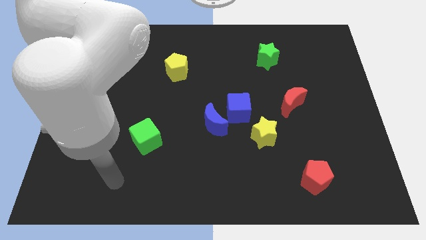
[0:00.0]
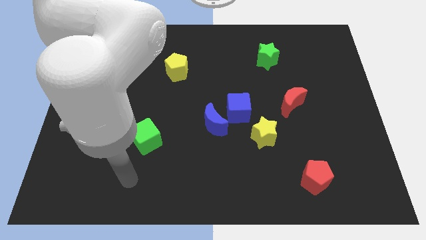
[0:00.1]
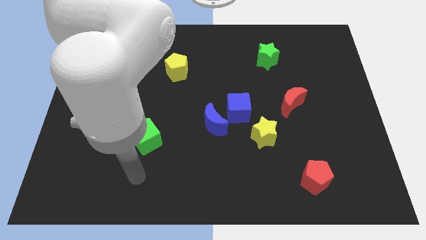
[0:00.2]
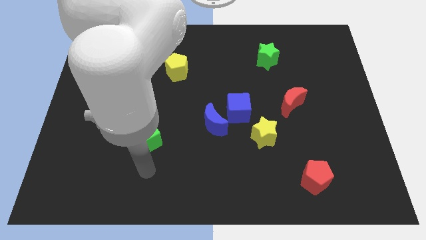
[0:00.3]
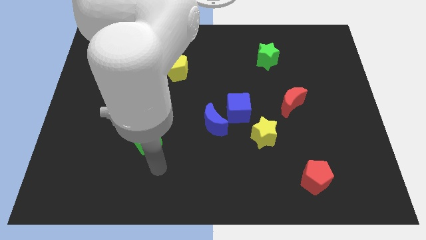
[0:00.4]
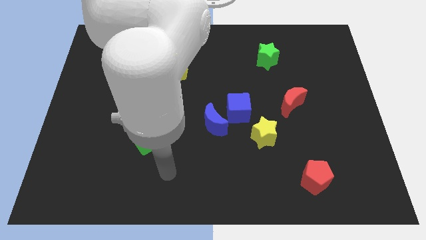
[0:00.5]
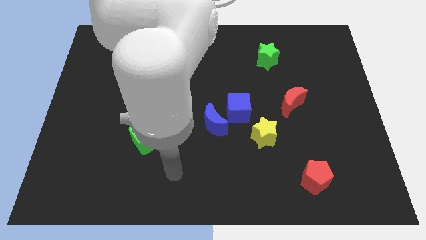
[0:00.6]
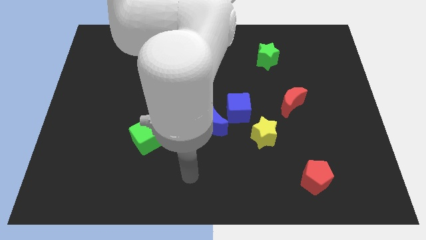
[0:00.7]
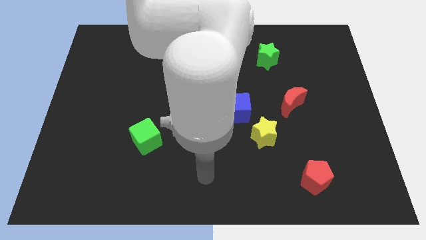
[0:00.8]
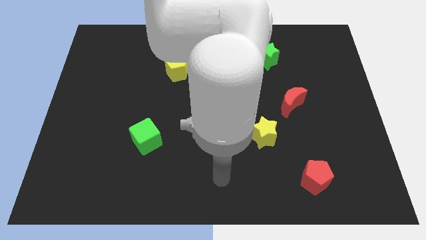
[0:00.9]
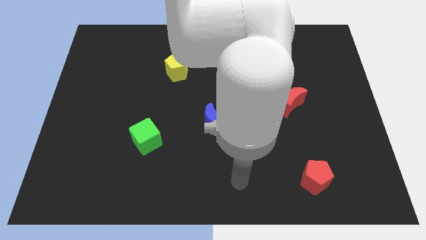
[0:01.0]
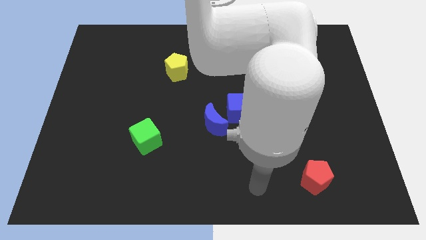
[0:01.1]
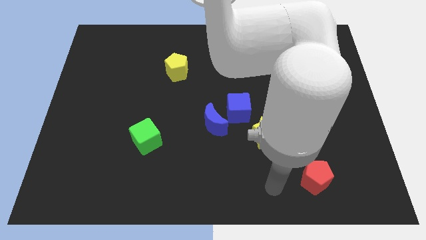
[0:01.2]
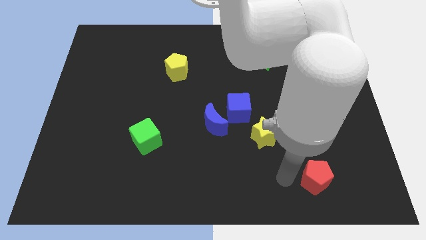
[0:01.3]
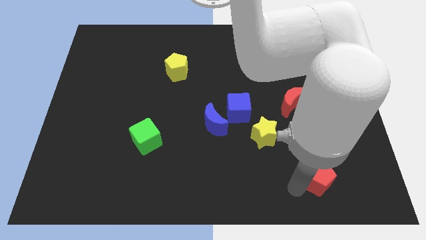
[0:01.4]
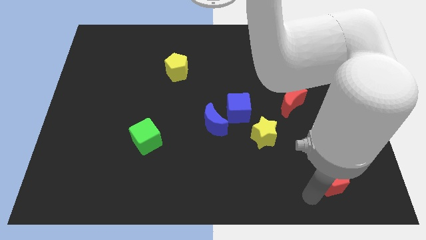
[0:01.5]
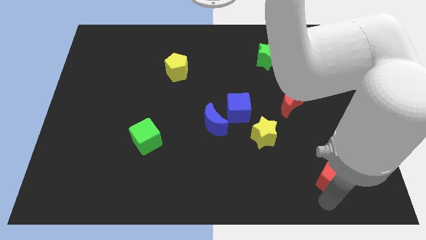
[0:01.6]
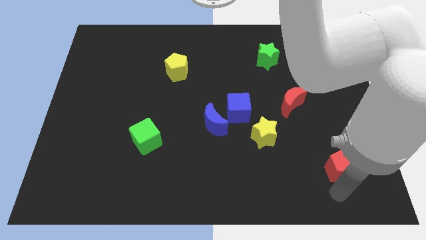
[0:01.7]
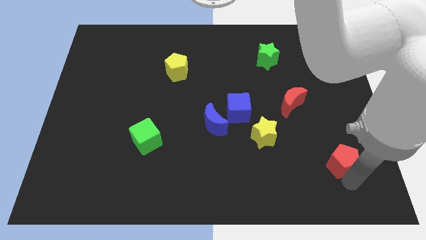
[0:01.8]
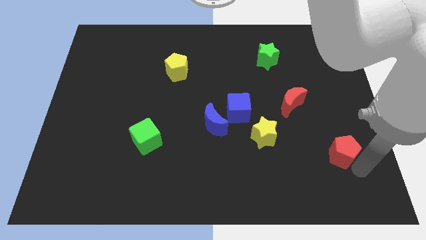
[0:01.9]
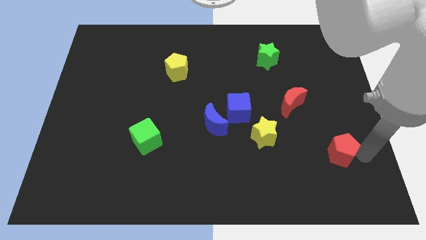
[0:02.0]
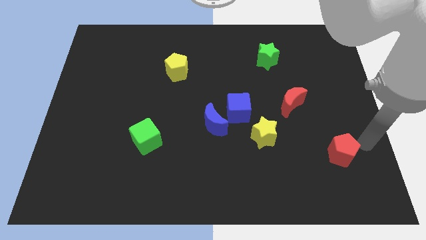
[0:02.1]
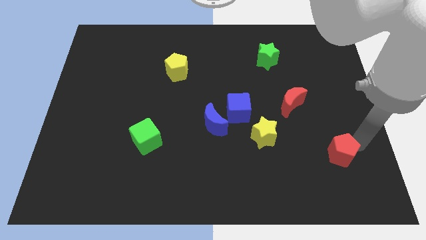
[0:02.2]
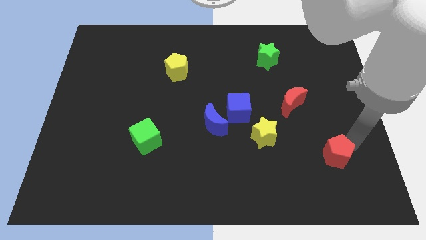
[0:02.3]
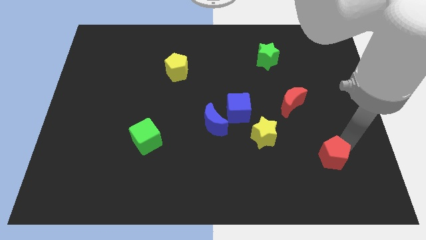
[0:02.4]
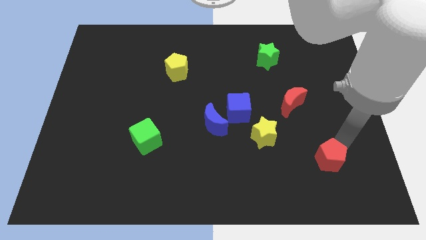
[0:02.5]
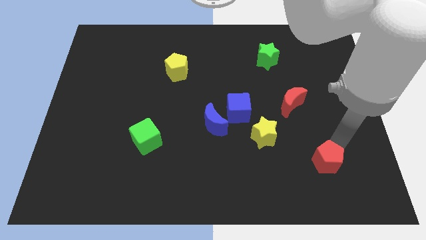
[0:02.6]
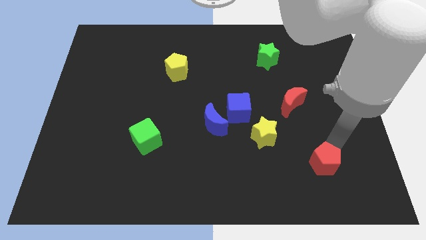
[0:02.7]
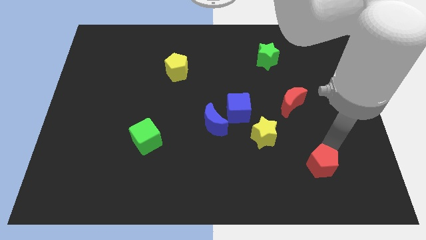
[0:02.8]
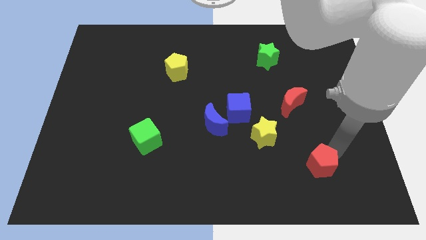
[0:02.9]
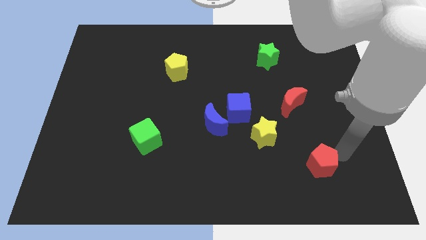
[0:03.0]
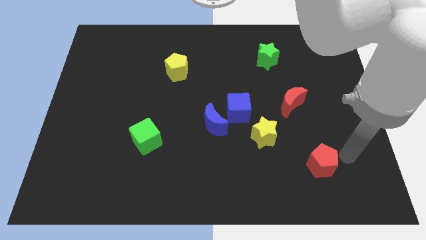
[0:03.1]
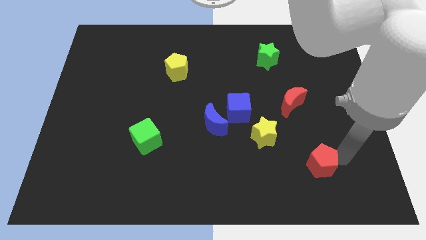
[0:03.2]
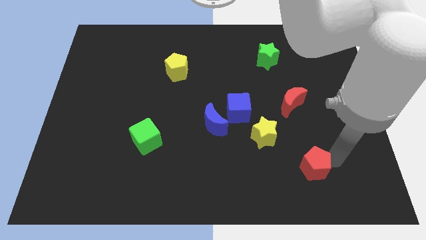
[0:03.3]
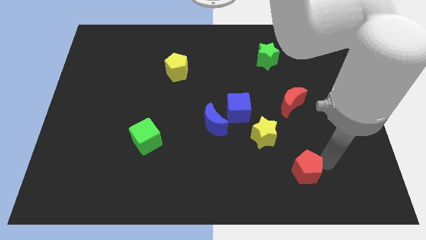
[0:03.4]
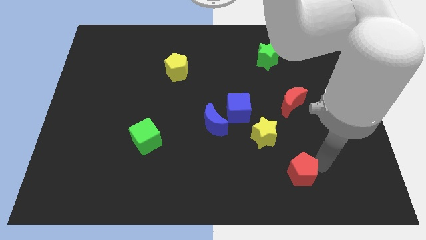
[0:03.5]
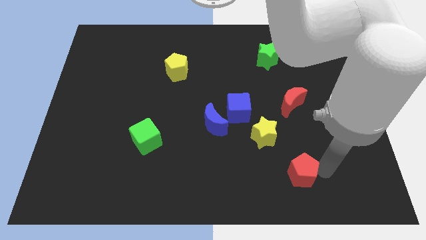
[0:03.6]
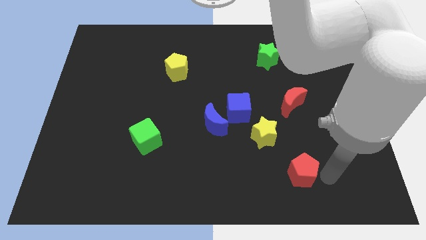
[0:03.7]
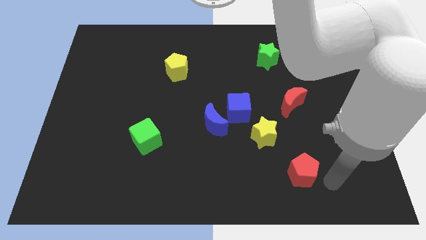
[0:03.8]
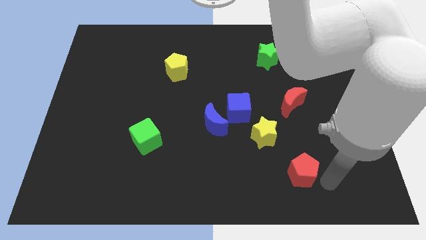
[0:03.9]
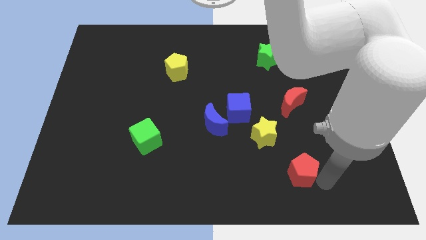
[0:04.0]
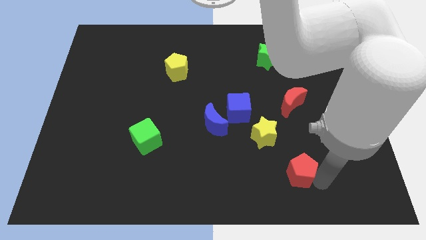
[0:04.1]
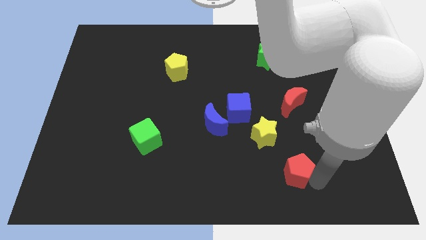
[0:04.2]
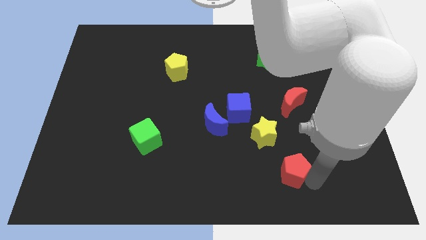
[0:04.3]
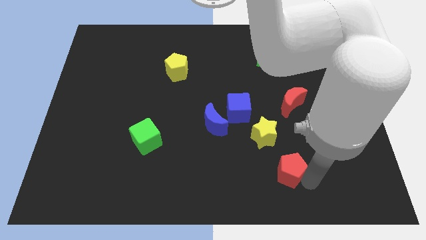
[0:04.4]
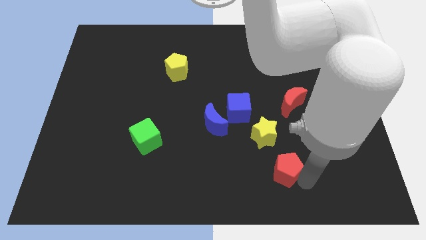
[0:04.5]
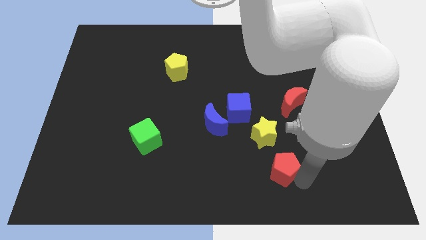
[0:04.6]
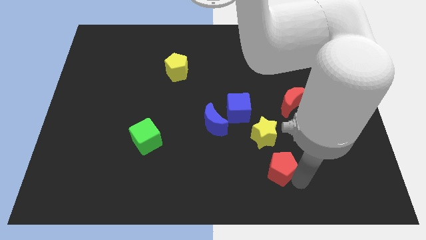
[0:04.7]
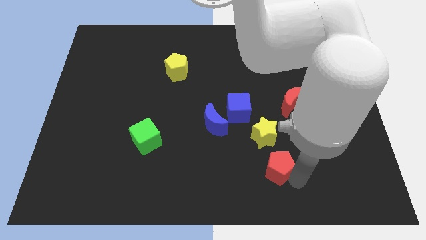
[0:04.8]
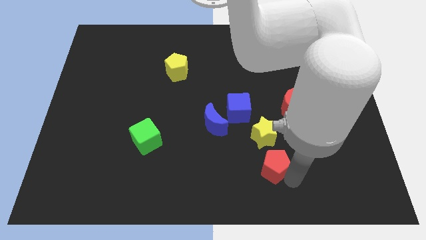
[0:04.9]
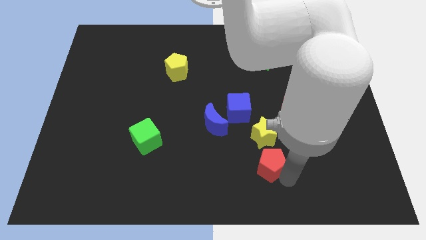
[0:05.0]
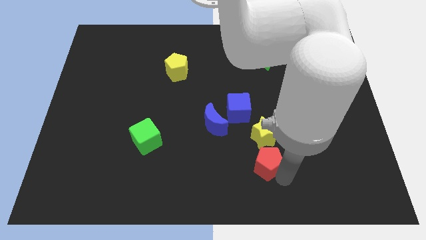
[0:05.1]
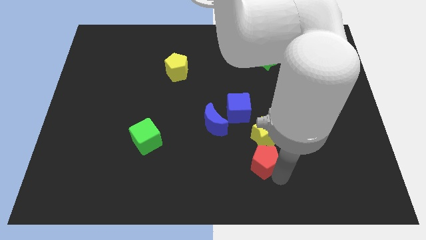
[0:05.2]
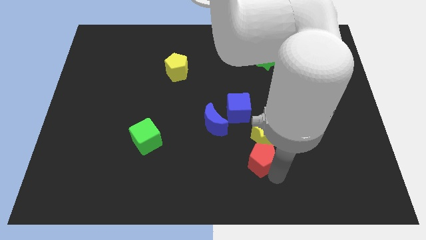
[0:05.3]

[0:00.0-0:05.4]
slide the red pentagon to the bottom of the blue cube

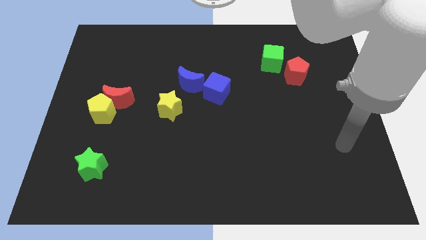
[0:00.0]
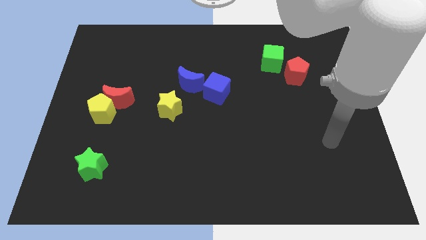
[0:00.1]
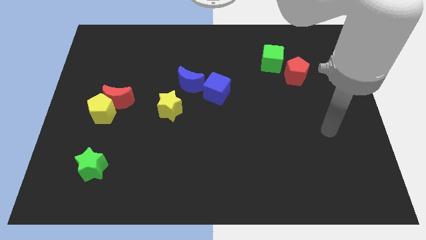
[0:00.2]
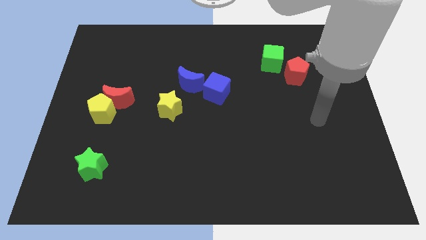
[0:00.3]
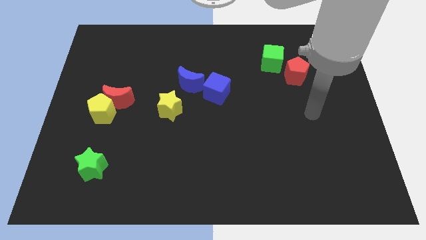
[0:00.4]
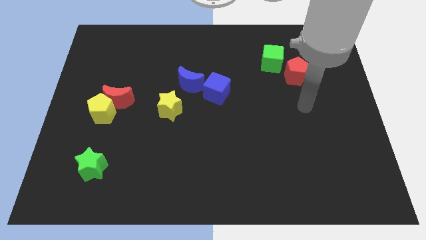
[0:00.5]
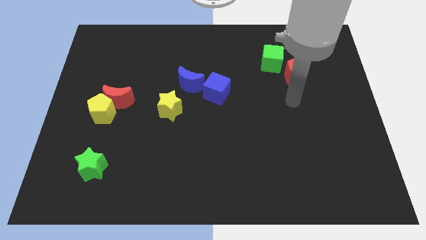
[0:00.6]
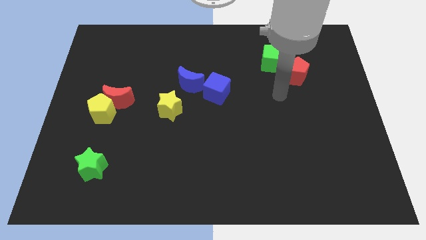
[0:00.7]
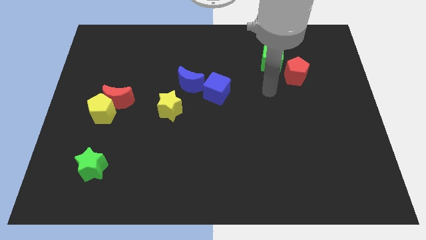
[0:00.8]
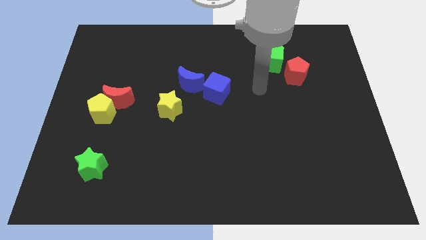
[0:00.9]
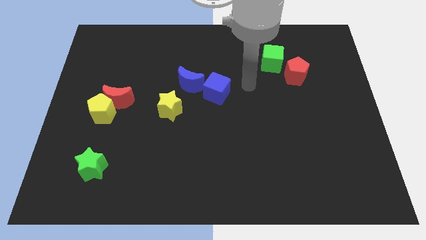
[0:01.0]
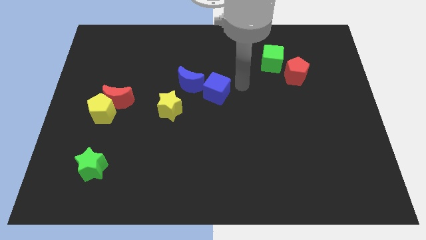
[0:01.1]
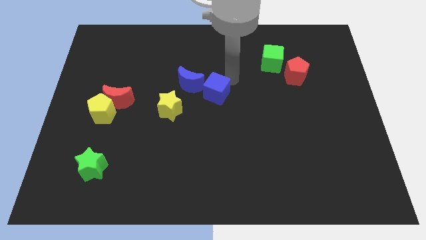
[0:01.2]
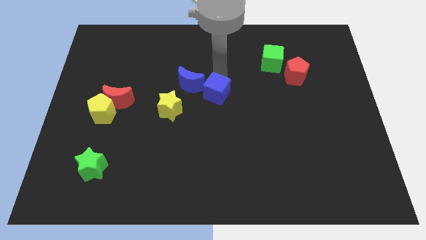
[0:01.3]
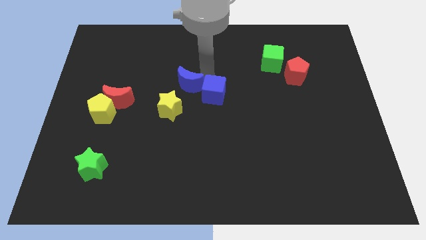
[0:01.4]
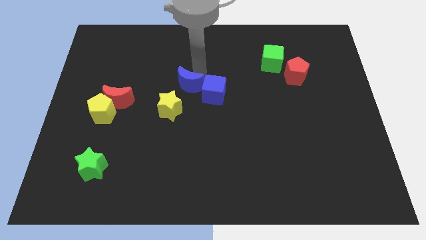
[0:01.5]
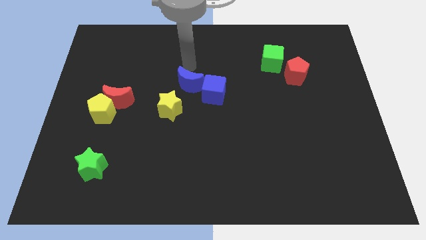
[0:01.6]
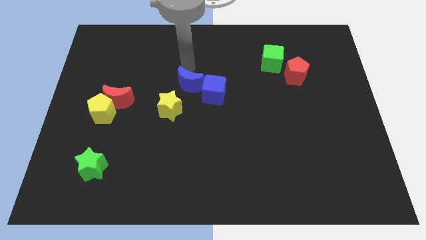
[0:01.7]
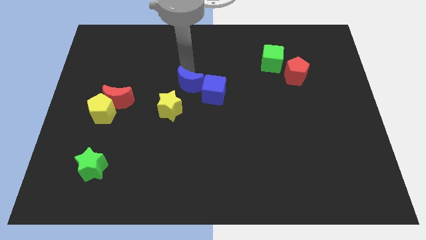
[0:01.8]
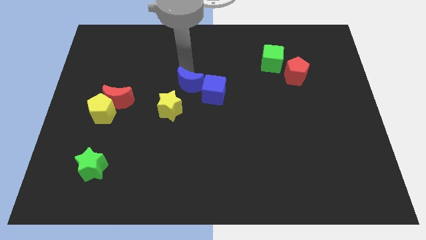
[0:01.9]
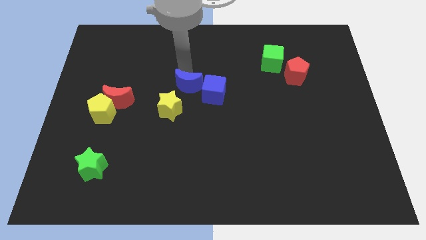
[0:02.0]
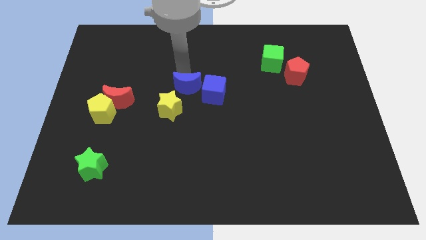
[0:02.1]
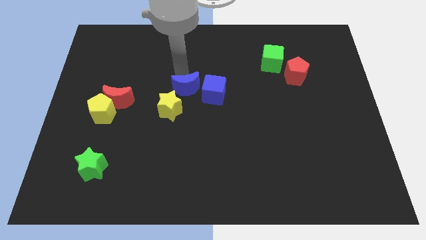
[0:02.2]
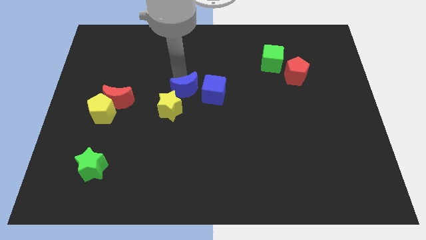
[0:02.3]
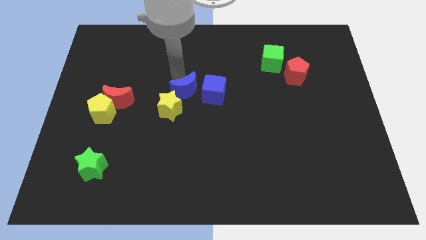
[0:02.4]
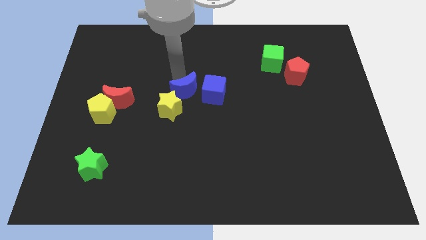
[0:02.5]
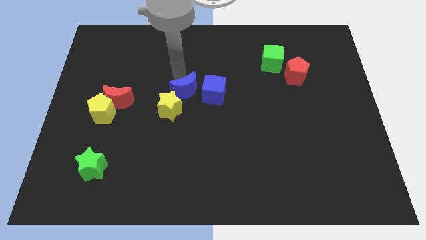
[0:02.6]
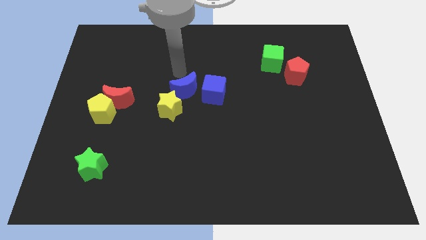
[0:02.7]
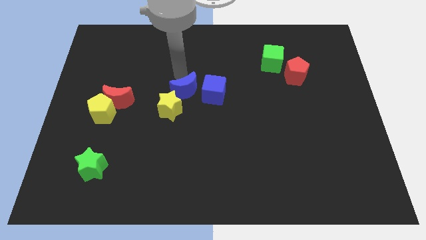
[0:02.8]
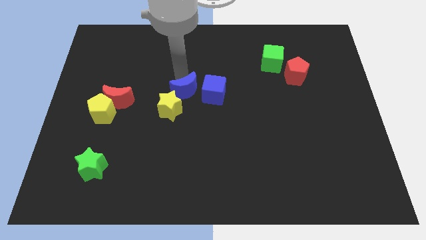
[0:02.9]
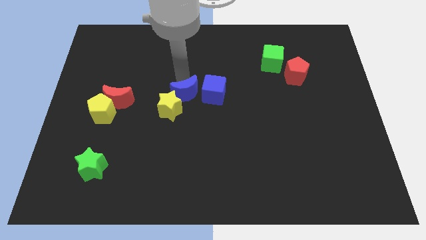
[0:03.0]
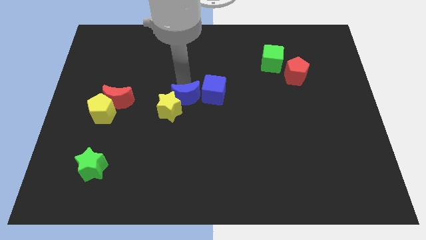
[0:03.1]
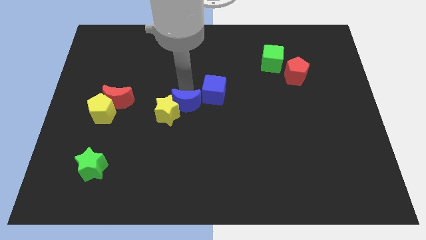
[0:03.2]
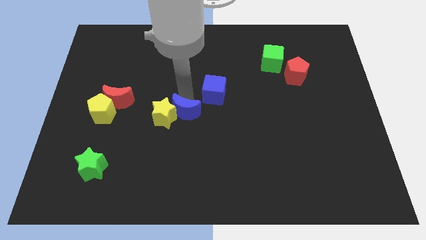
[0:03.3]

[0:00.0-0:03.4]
push the blue moon diagonally down and to the right of the yellow star
